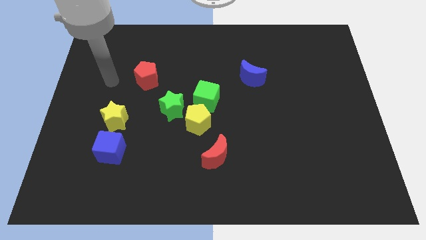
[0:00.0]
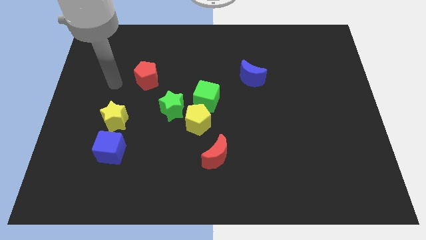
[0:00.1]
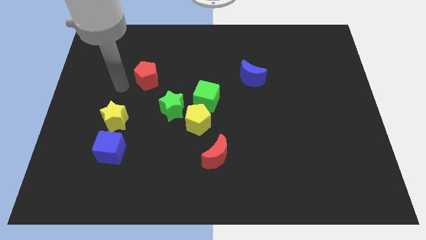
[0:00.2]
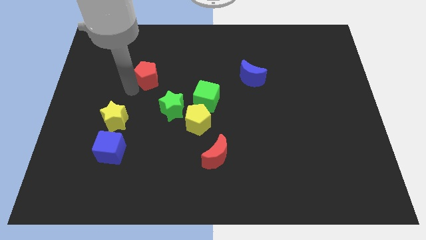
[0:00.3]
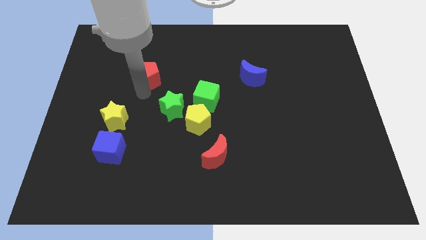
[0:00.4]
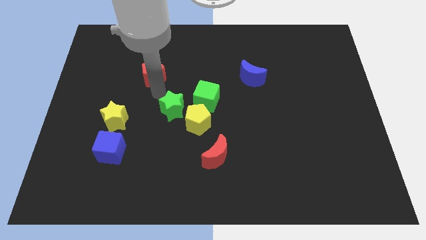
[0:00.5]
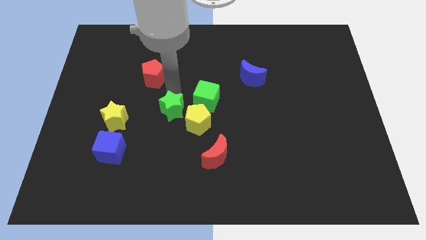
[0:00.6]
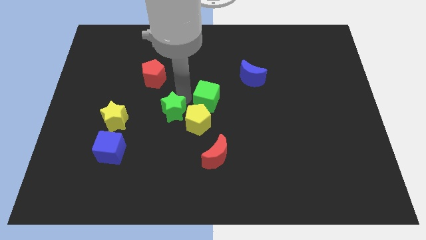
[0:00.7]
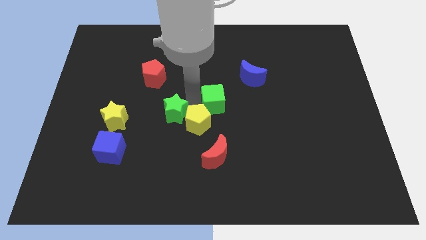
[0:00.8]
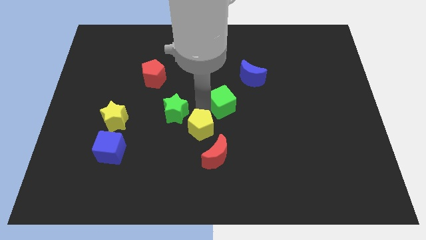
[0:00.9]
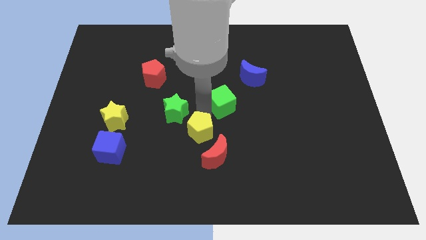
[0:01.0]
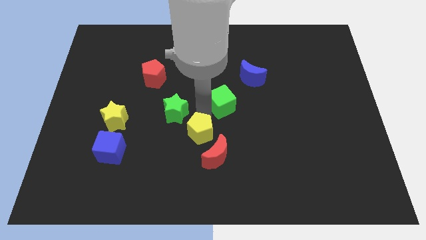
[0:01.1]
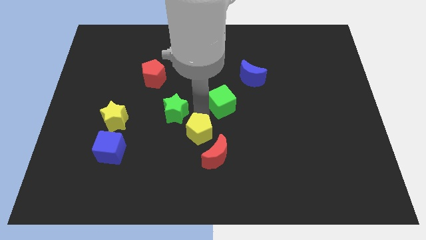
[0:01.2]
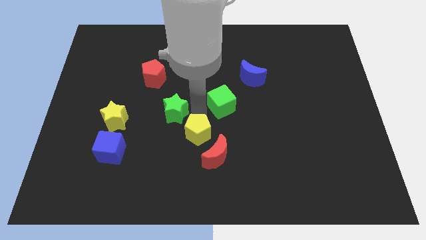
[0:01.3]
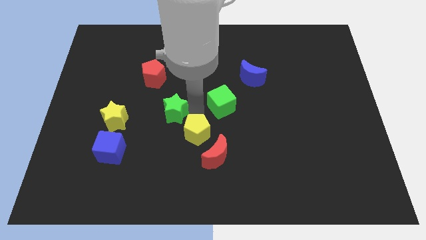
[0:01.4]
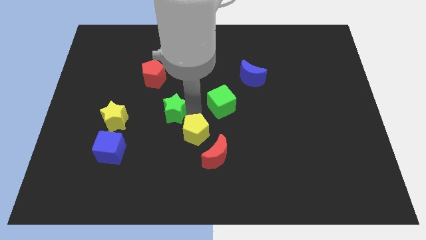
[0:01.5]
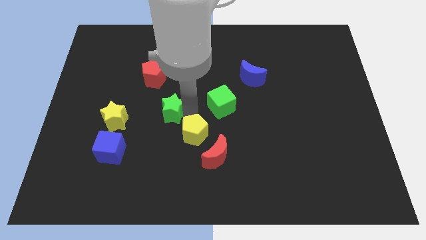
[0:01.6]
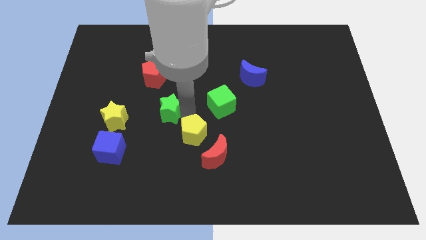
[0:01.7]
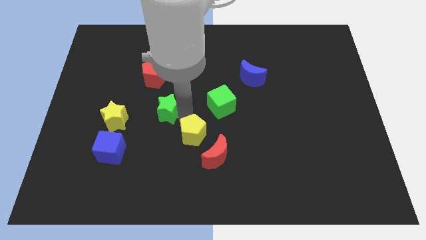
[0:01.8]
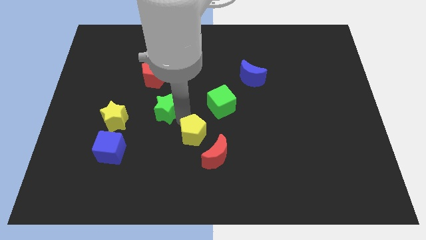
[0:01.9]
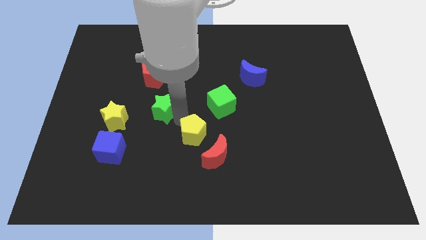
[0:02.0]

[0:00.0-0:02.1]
separate the green star from the yellow pentagon and green cube

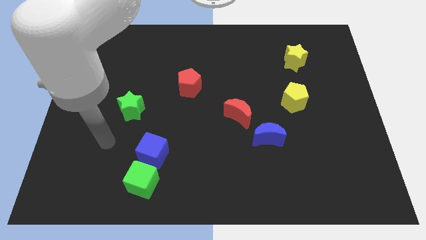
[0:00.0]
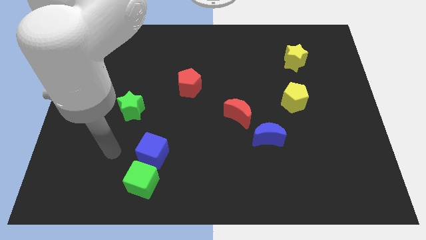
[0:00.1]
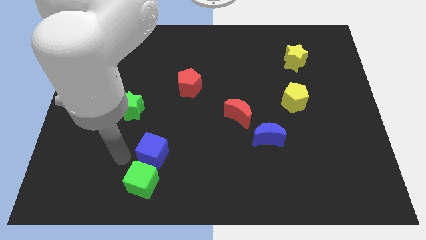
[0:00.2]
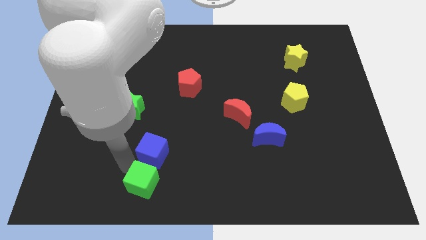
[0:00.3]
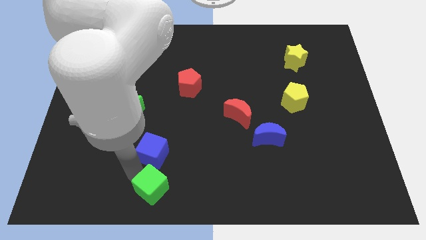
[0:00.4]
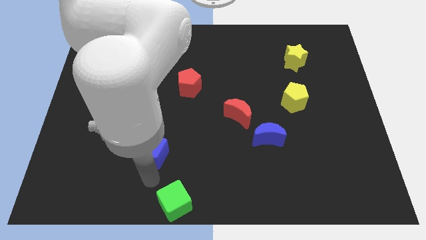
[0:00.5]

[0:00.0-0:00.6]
move the blue cube away from the green cube

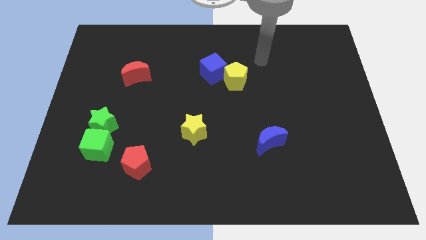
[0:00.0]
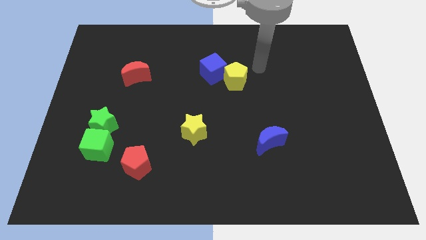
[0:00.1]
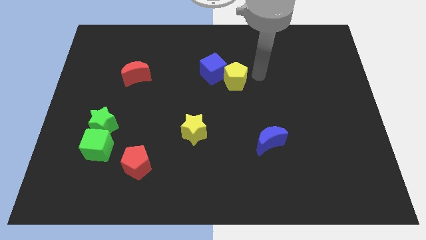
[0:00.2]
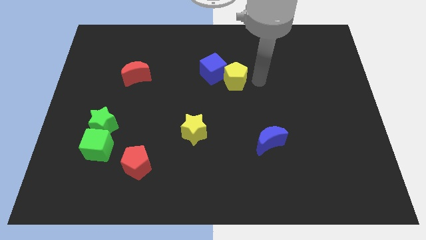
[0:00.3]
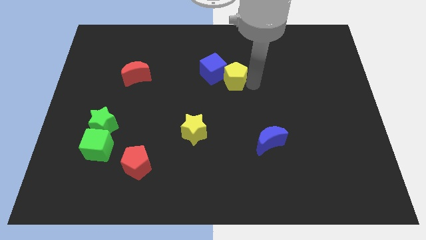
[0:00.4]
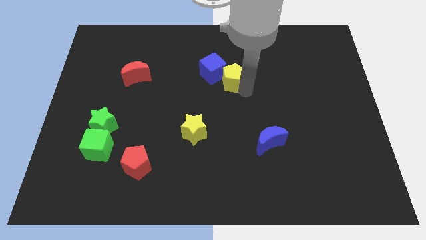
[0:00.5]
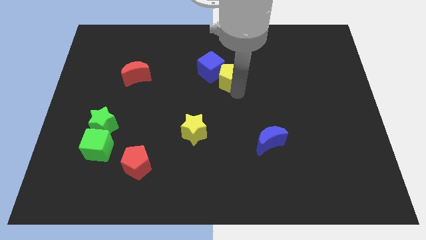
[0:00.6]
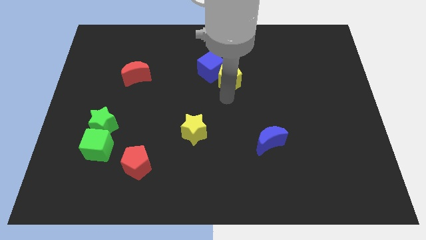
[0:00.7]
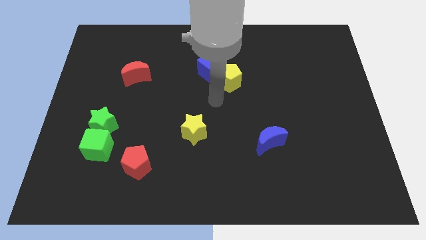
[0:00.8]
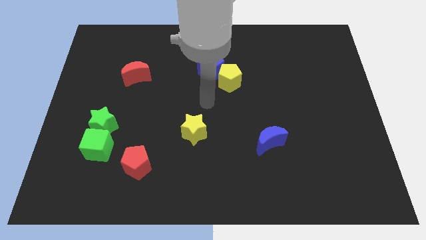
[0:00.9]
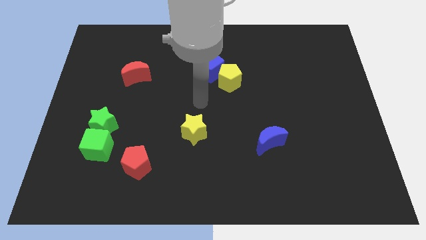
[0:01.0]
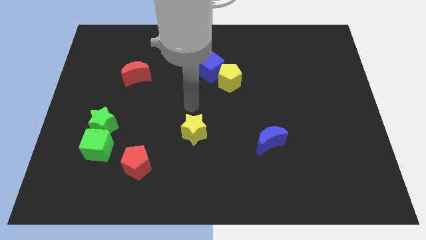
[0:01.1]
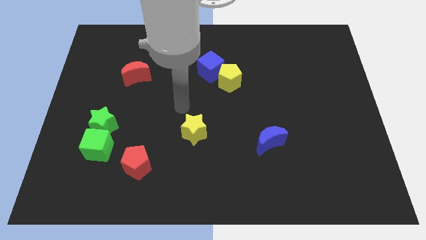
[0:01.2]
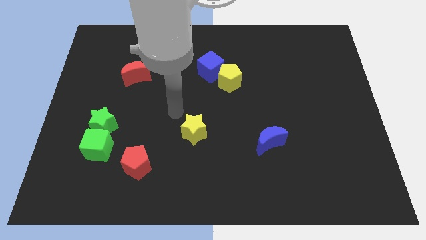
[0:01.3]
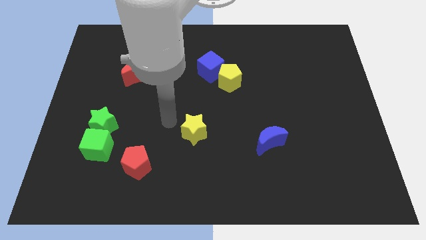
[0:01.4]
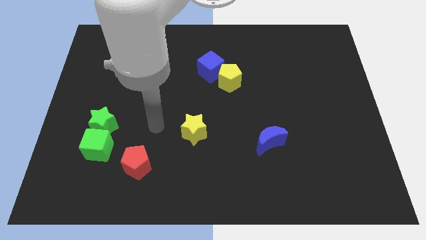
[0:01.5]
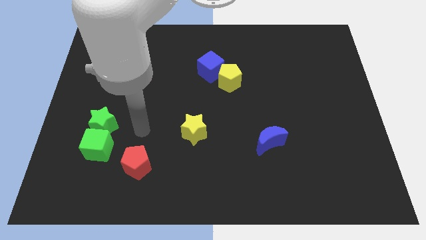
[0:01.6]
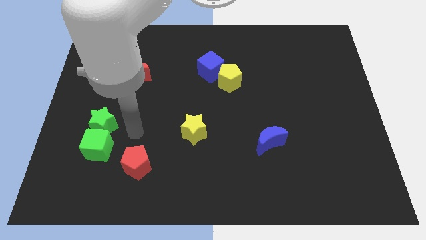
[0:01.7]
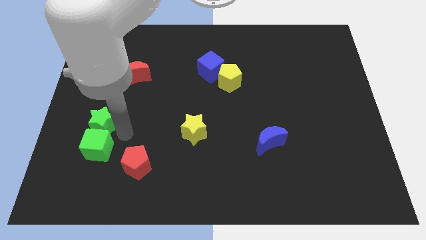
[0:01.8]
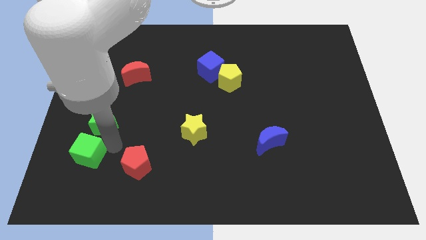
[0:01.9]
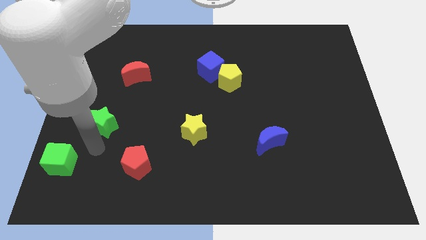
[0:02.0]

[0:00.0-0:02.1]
separate the green star from the green cube

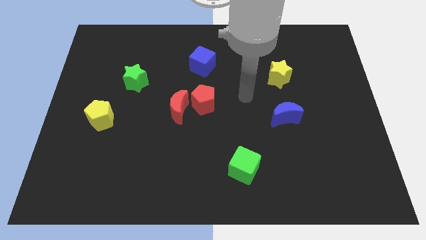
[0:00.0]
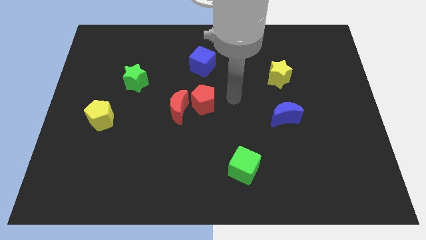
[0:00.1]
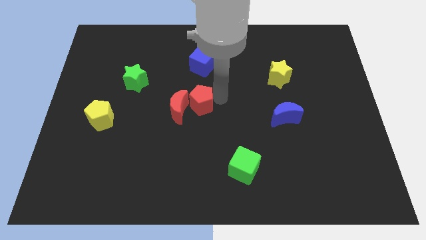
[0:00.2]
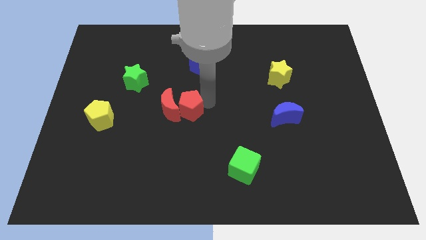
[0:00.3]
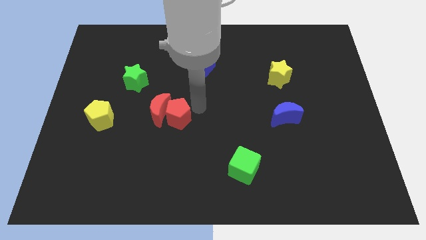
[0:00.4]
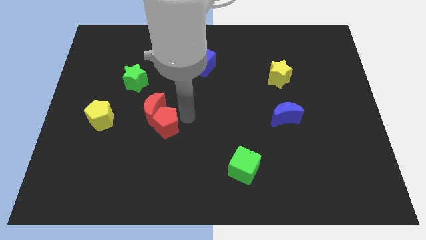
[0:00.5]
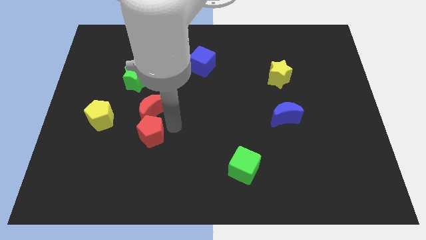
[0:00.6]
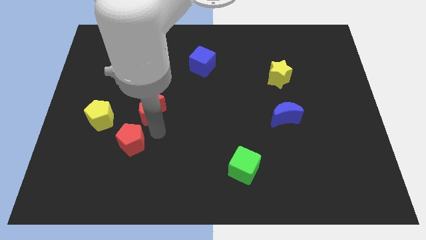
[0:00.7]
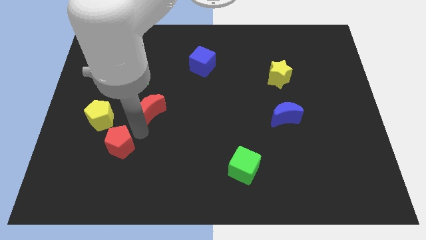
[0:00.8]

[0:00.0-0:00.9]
move the red moon away from the red pentagon

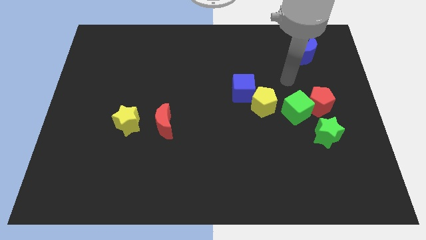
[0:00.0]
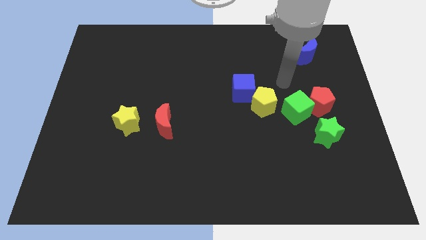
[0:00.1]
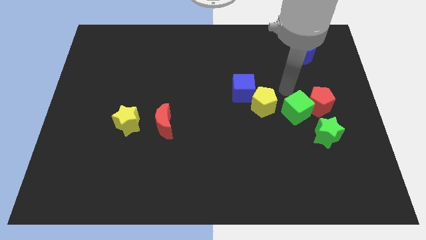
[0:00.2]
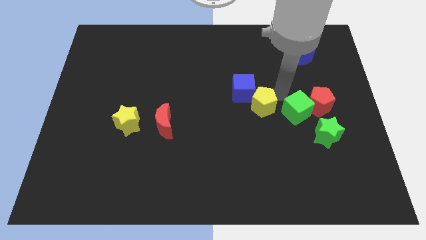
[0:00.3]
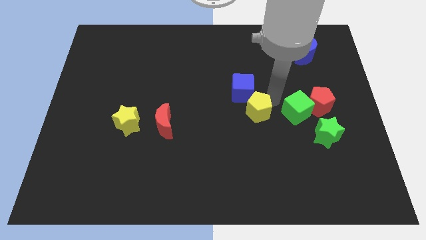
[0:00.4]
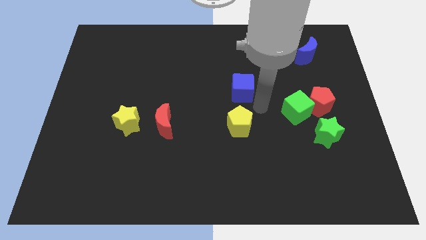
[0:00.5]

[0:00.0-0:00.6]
move the blue cube away from the yellow pentagon

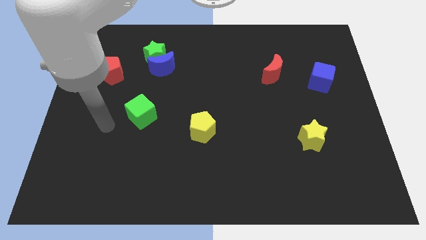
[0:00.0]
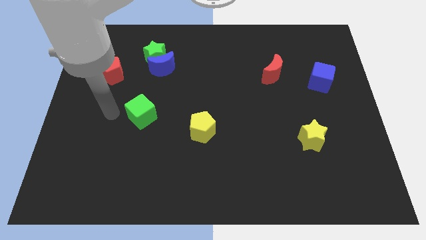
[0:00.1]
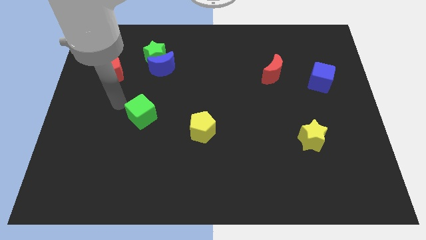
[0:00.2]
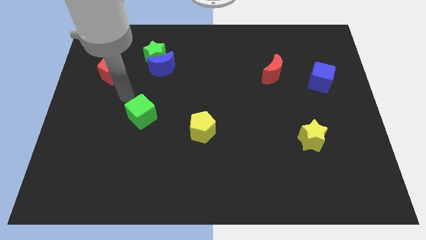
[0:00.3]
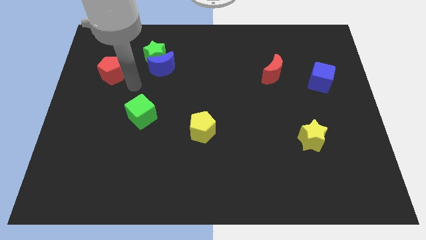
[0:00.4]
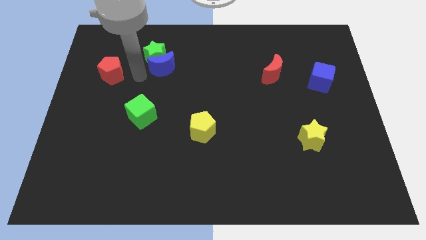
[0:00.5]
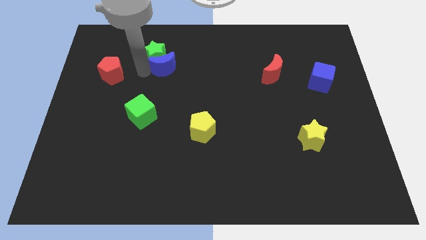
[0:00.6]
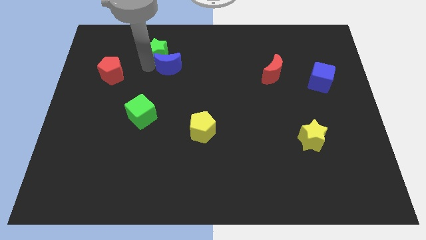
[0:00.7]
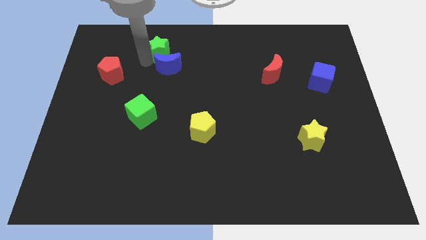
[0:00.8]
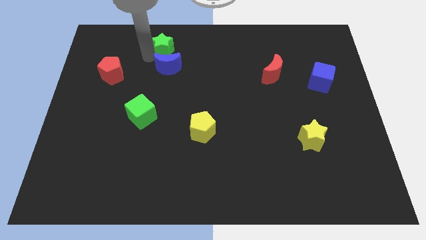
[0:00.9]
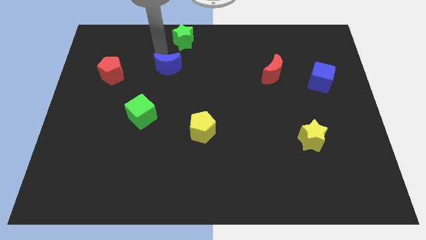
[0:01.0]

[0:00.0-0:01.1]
separate the blue moon from the green star

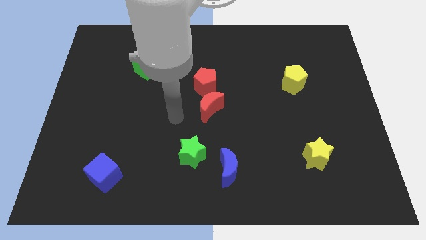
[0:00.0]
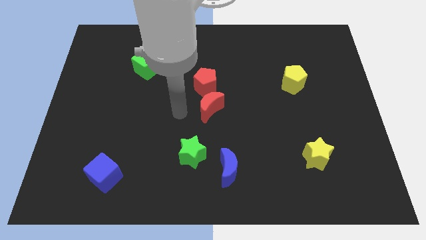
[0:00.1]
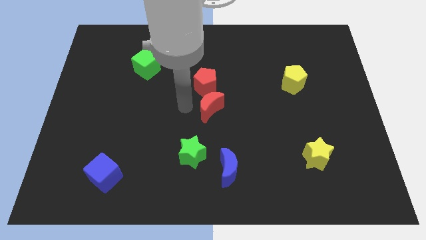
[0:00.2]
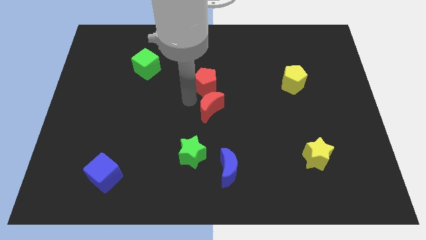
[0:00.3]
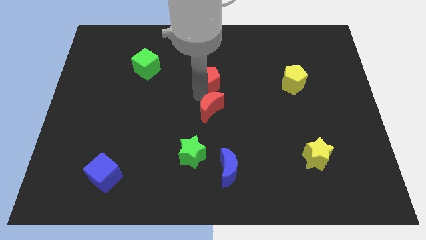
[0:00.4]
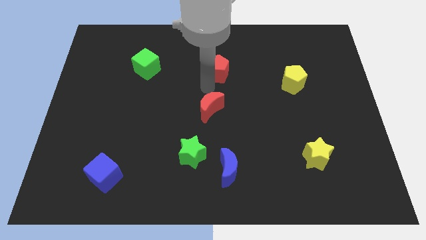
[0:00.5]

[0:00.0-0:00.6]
separate the red moon from the red pentagon

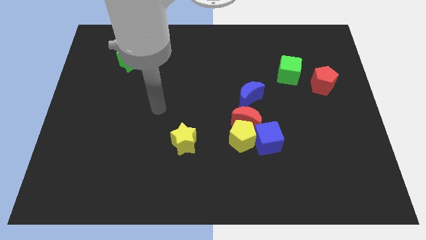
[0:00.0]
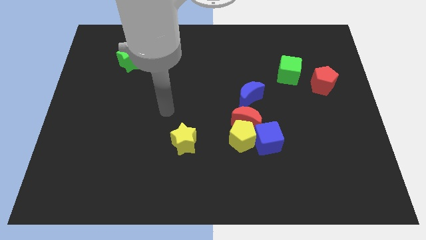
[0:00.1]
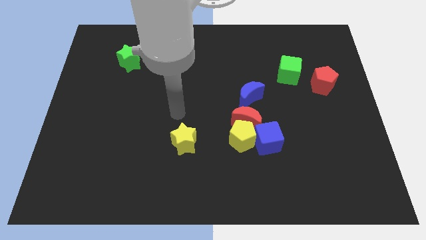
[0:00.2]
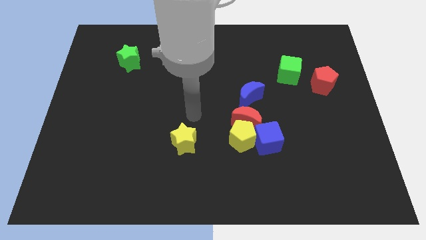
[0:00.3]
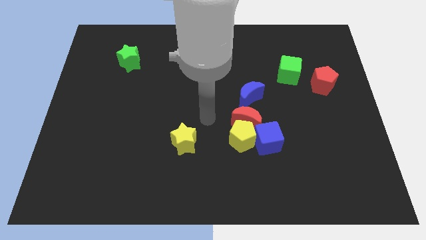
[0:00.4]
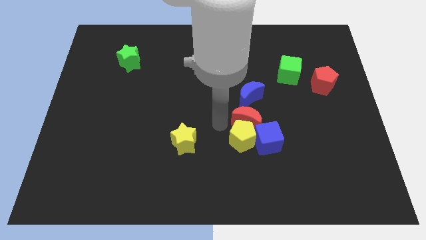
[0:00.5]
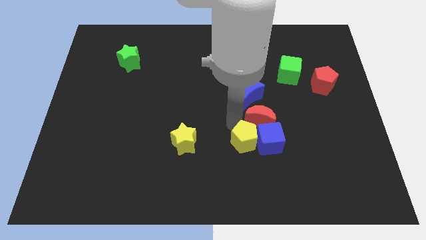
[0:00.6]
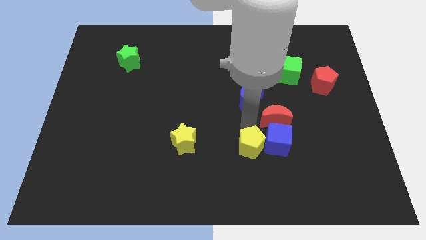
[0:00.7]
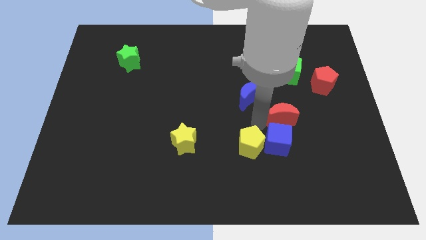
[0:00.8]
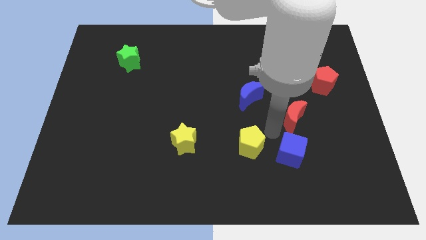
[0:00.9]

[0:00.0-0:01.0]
move the yellow pentagon away from the red moon and blue cube

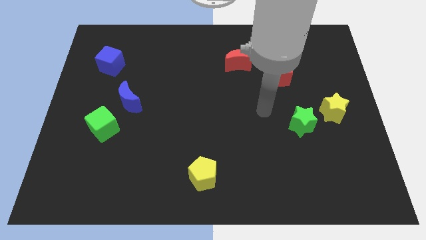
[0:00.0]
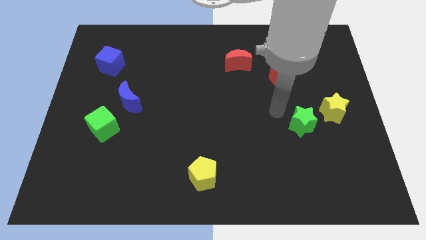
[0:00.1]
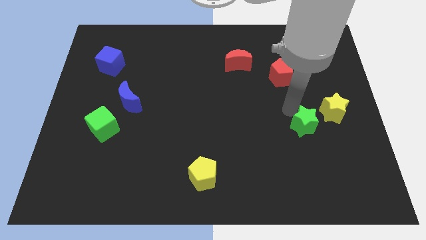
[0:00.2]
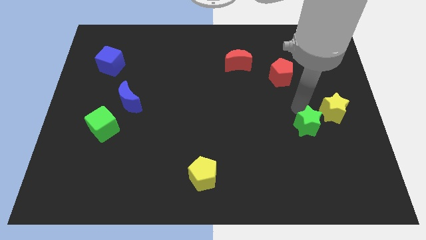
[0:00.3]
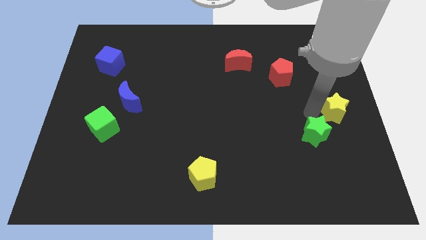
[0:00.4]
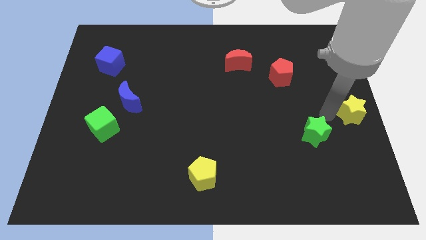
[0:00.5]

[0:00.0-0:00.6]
pull the green star apart from the yellow star
